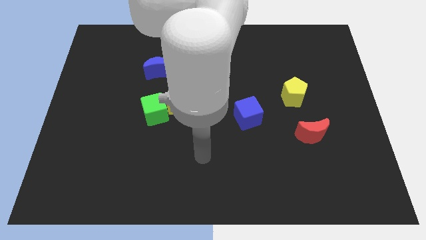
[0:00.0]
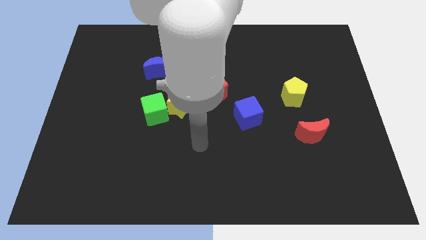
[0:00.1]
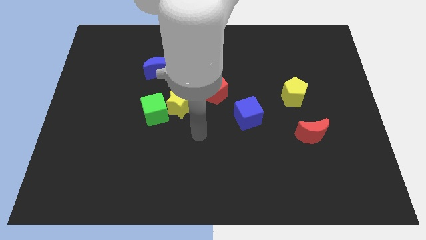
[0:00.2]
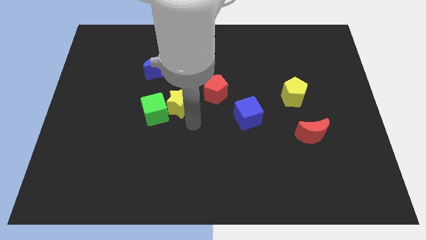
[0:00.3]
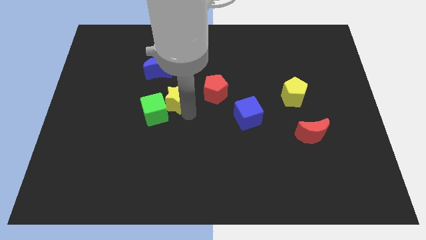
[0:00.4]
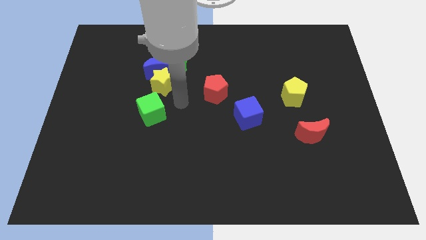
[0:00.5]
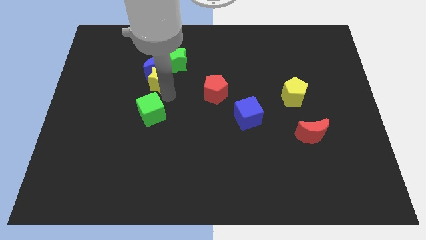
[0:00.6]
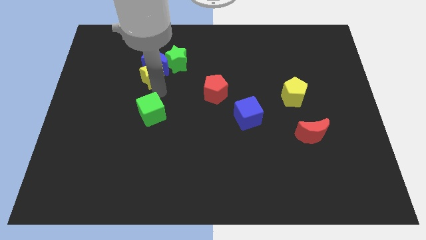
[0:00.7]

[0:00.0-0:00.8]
separate the green cube from the yellow star

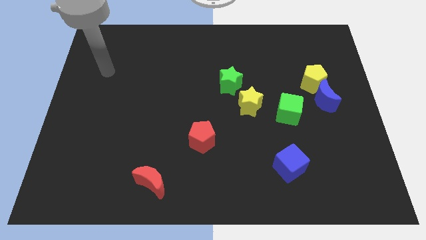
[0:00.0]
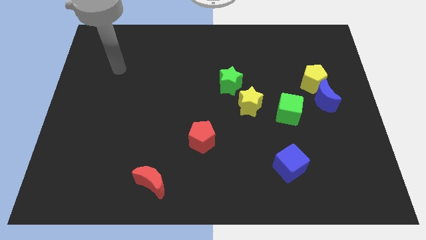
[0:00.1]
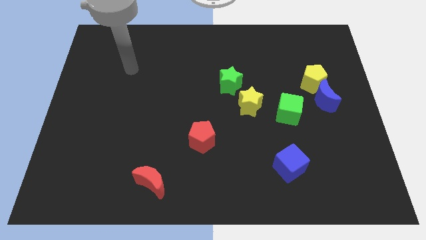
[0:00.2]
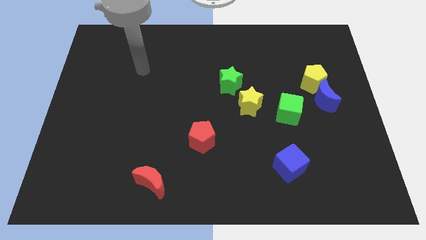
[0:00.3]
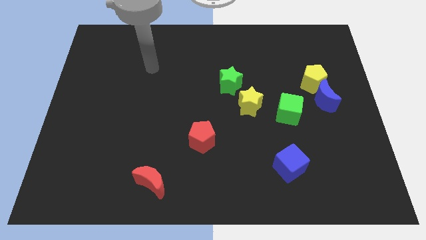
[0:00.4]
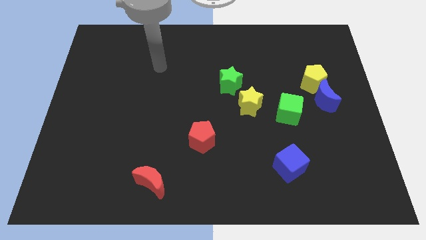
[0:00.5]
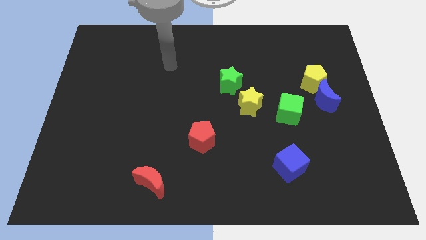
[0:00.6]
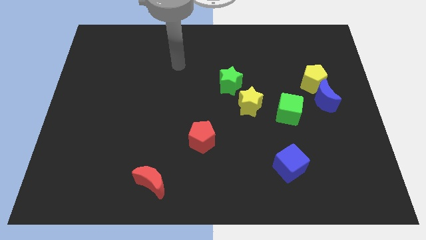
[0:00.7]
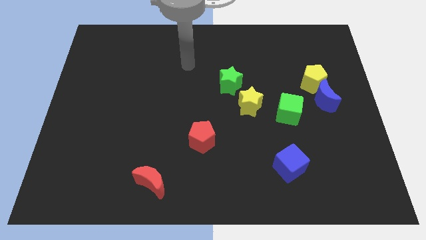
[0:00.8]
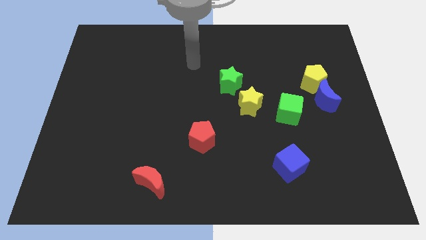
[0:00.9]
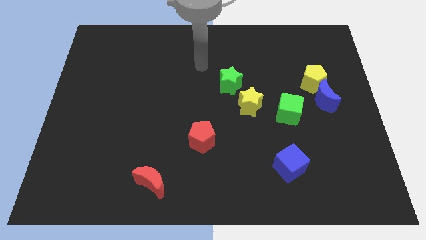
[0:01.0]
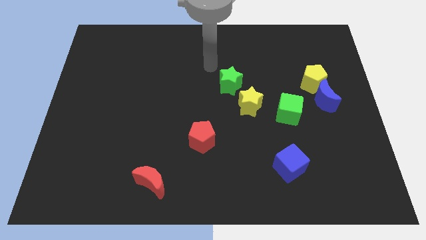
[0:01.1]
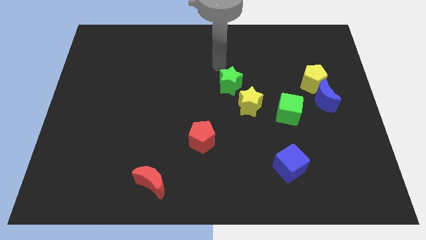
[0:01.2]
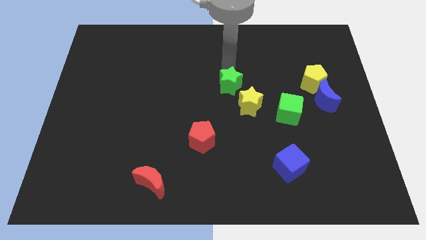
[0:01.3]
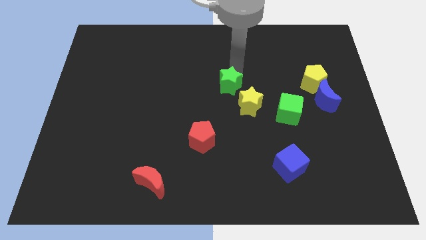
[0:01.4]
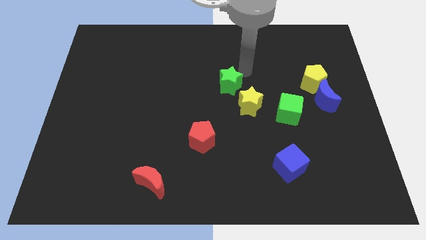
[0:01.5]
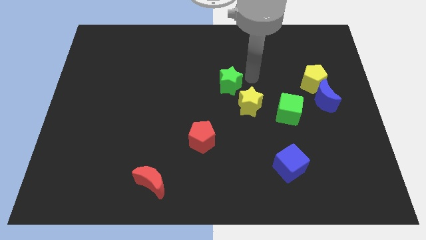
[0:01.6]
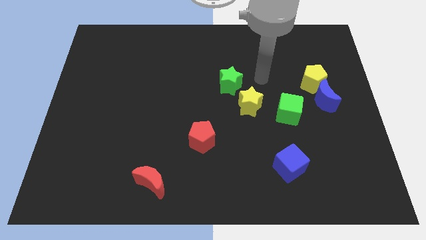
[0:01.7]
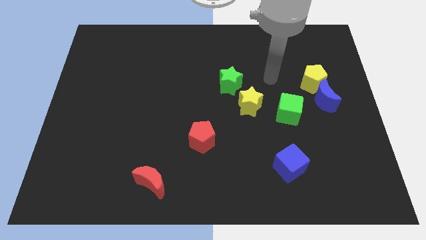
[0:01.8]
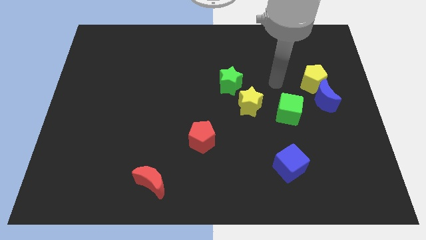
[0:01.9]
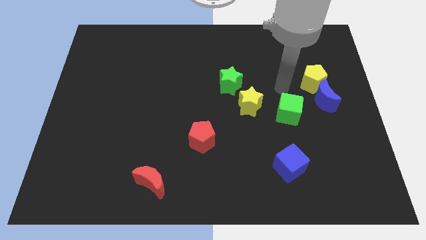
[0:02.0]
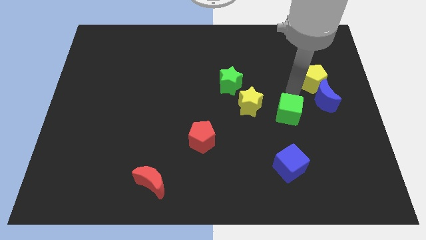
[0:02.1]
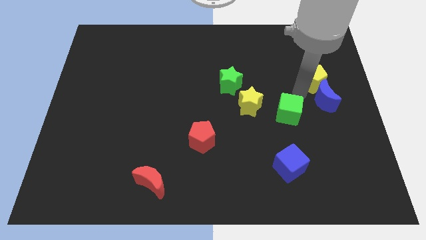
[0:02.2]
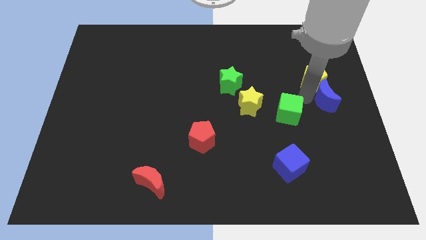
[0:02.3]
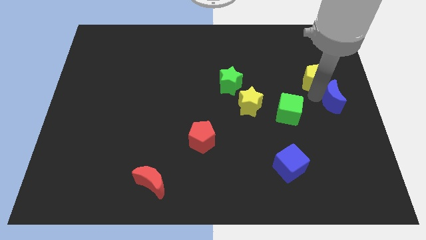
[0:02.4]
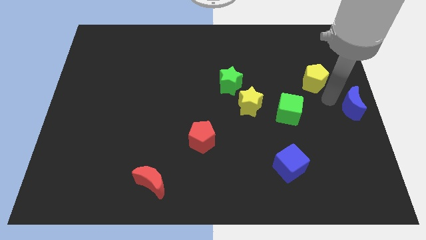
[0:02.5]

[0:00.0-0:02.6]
pull the yellow pentagon apart from the blue moon

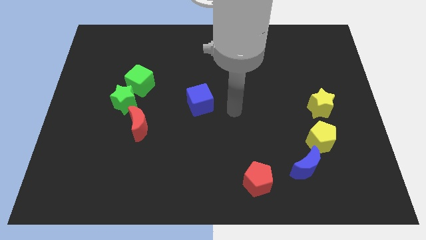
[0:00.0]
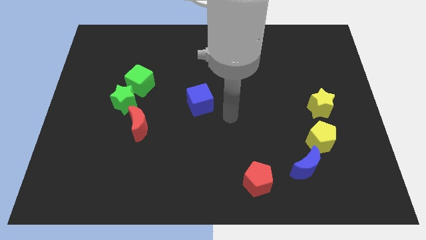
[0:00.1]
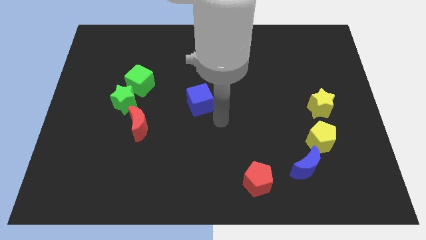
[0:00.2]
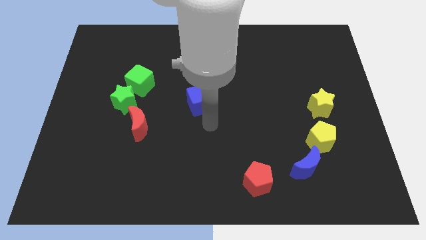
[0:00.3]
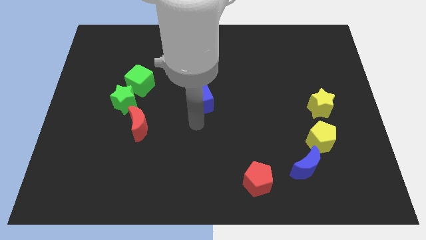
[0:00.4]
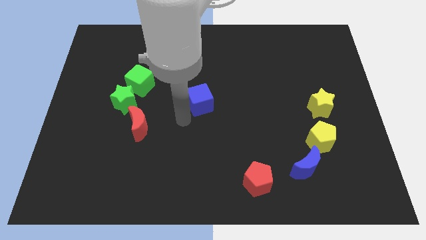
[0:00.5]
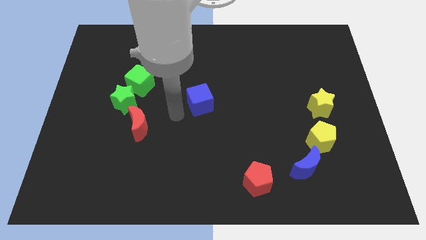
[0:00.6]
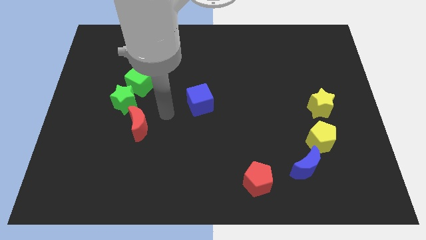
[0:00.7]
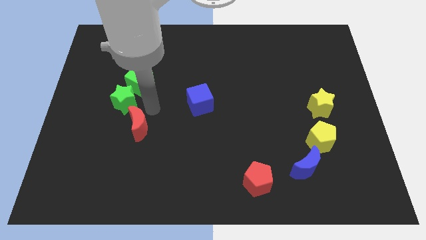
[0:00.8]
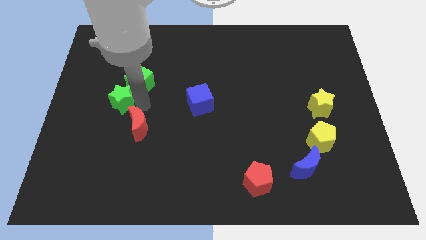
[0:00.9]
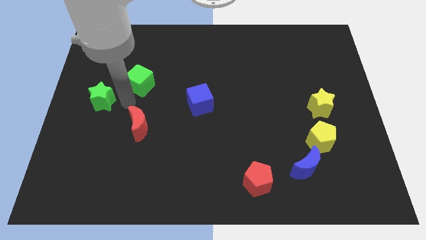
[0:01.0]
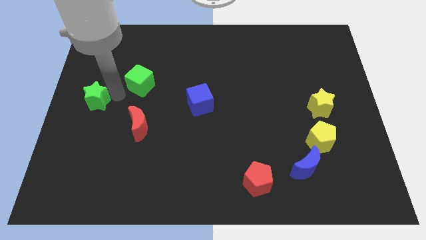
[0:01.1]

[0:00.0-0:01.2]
move the green cube away from the green star

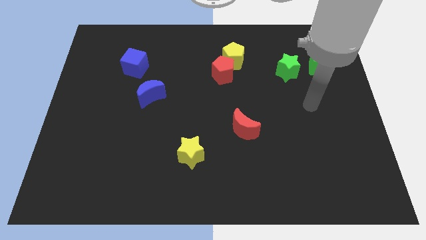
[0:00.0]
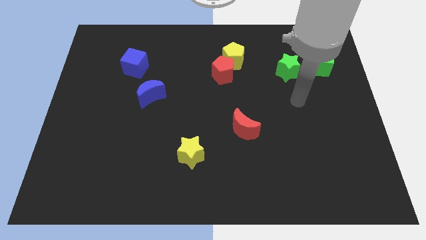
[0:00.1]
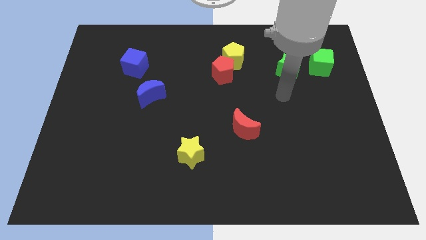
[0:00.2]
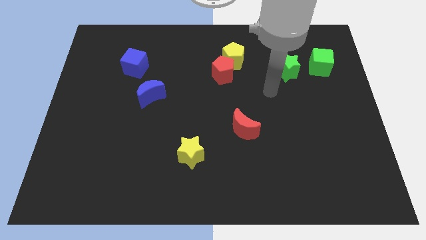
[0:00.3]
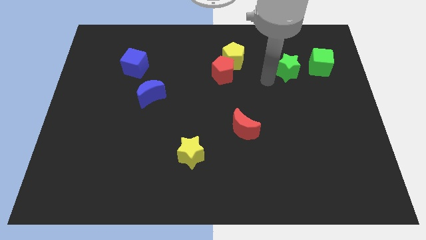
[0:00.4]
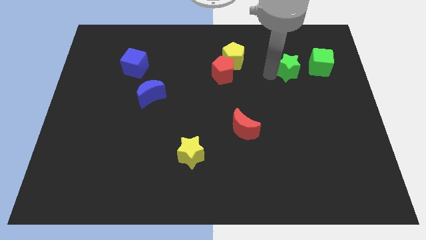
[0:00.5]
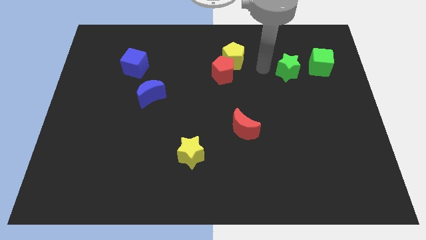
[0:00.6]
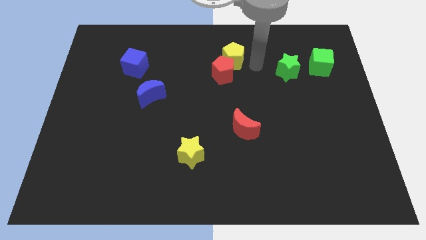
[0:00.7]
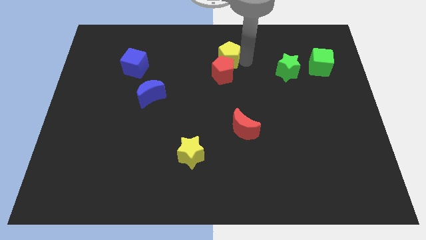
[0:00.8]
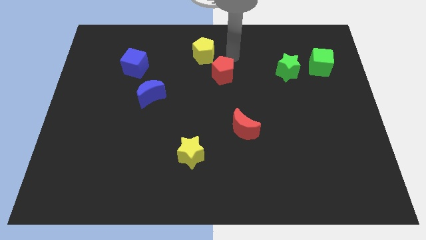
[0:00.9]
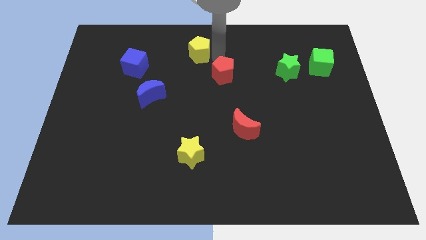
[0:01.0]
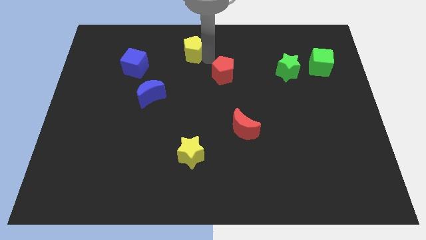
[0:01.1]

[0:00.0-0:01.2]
separate the red pentagon from the yellow pentagon

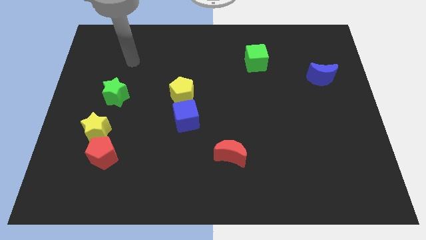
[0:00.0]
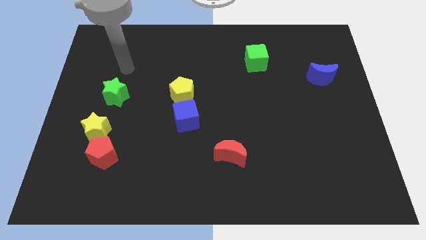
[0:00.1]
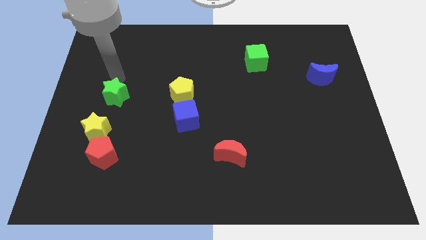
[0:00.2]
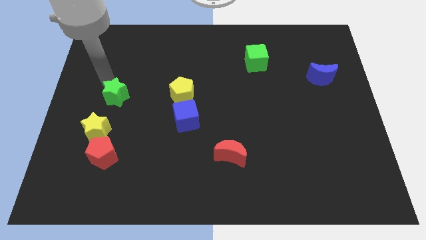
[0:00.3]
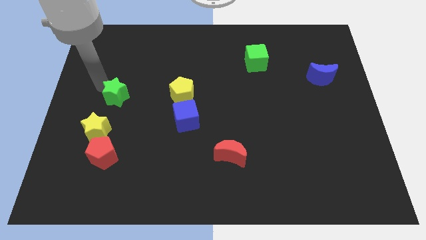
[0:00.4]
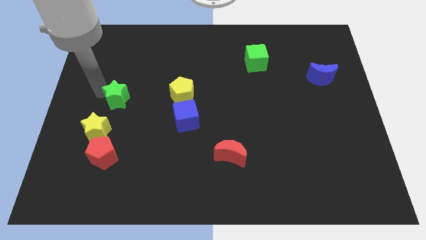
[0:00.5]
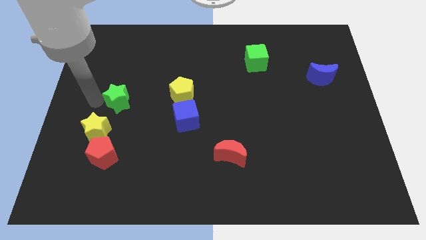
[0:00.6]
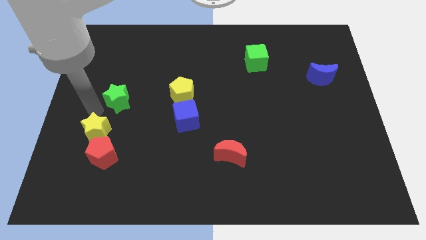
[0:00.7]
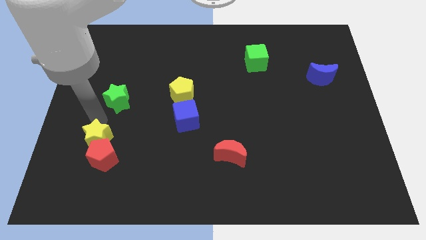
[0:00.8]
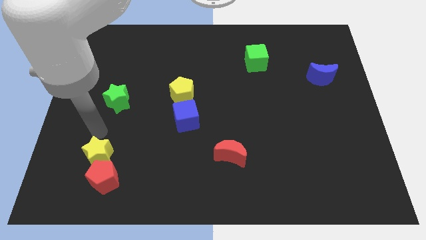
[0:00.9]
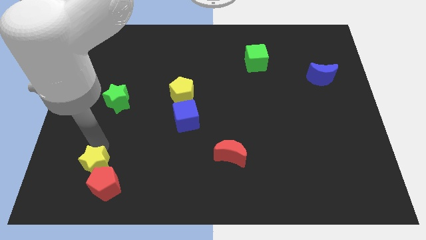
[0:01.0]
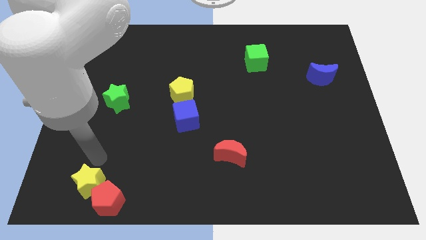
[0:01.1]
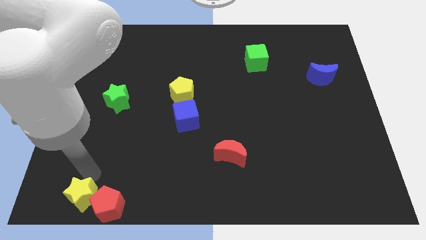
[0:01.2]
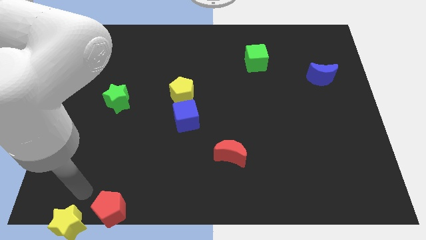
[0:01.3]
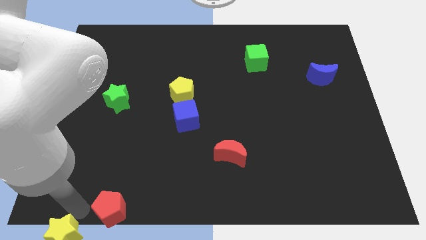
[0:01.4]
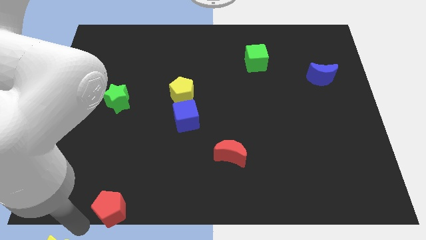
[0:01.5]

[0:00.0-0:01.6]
separate the red pentagon from the yellow star

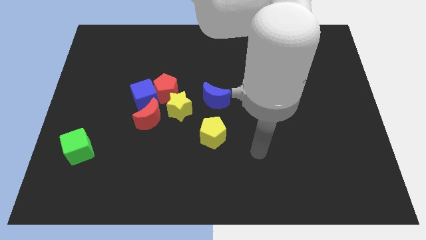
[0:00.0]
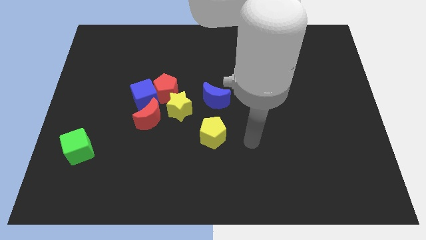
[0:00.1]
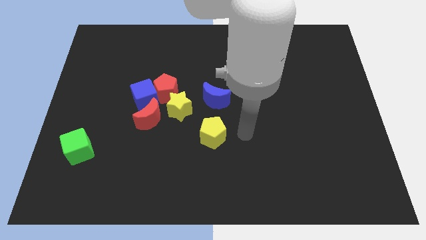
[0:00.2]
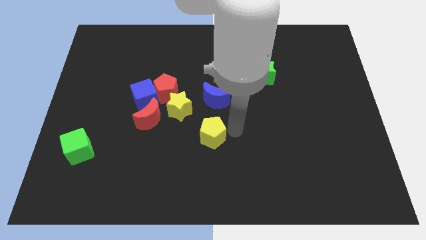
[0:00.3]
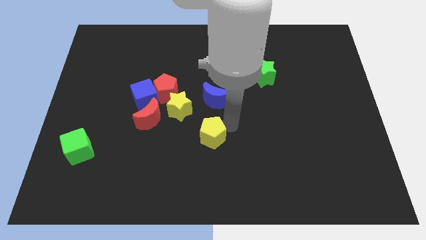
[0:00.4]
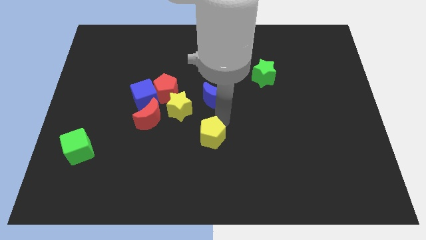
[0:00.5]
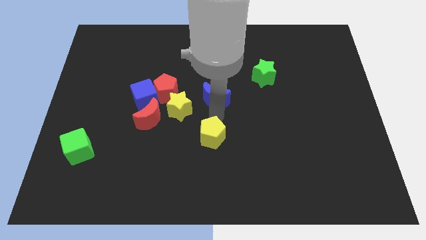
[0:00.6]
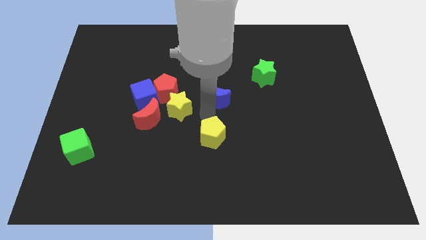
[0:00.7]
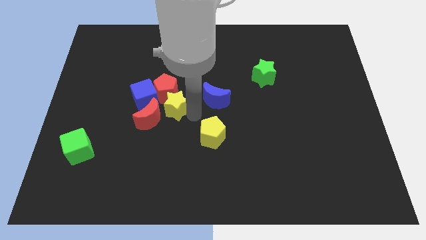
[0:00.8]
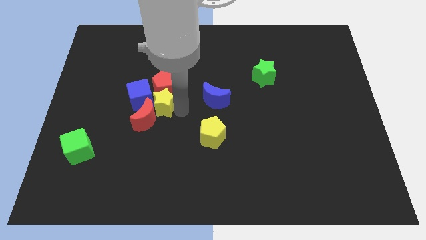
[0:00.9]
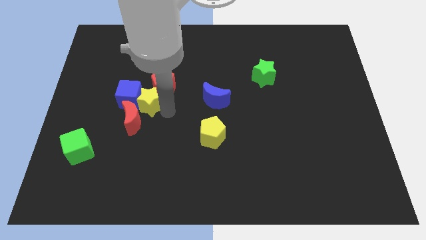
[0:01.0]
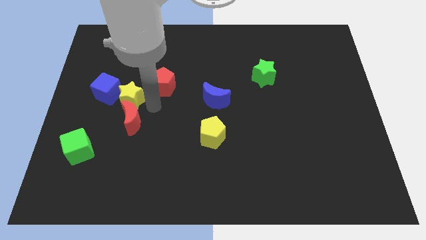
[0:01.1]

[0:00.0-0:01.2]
move the red pentagon away from the blue cube, yellow star, and red moon

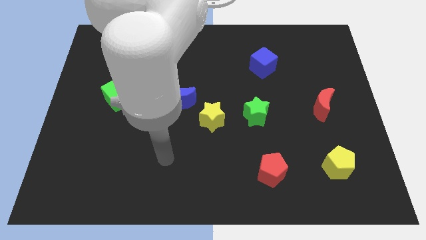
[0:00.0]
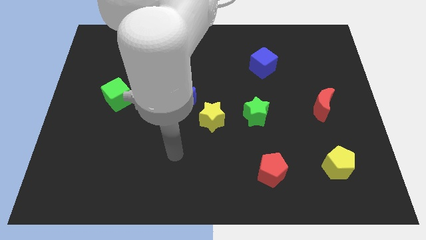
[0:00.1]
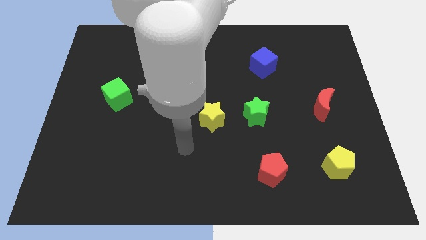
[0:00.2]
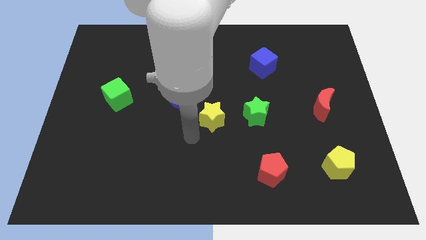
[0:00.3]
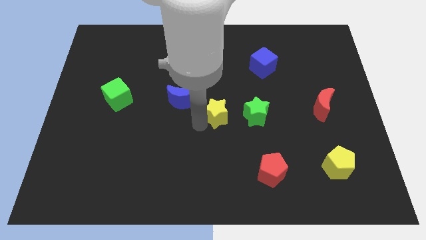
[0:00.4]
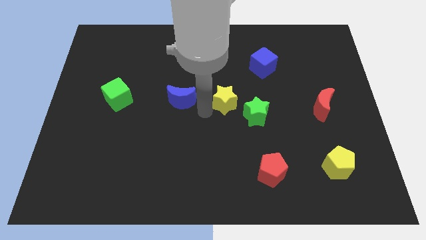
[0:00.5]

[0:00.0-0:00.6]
pull the blue moon apart from the yellow star

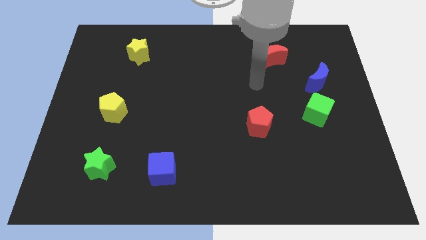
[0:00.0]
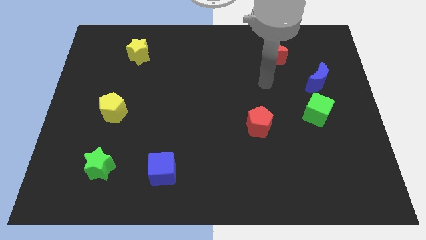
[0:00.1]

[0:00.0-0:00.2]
separate the blue moon from the green cube
